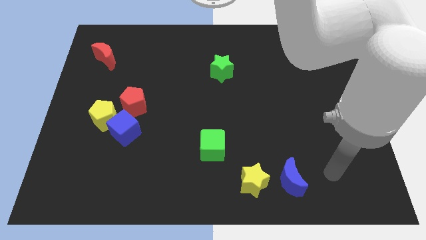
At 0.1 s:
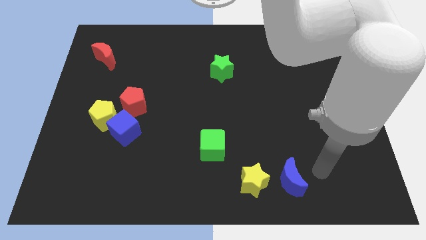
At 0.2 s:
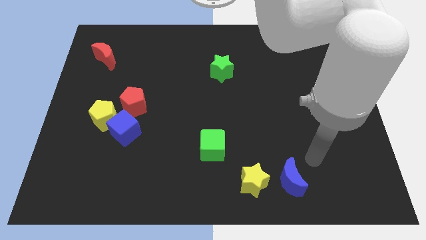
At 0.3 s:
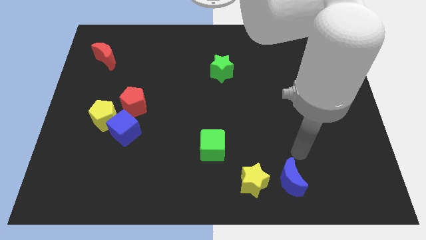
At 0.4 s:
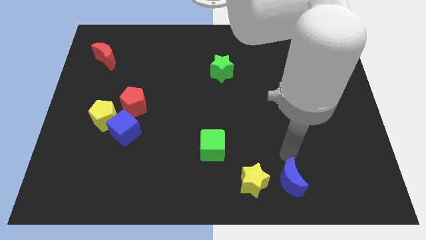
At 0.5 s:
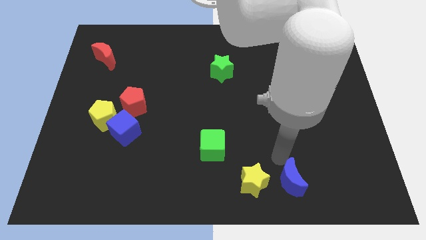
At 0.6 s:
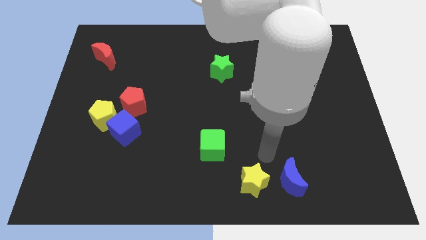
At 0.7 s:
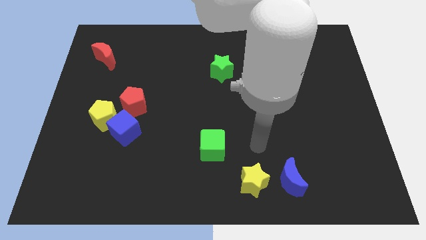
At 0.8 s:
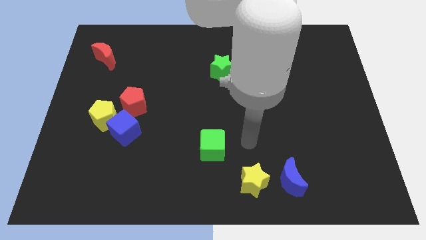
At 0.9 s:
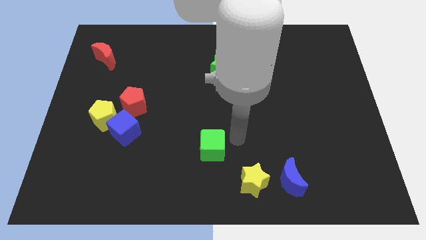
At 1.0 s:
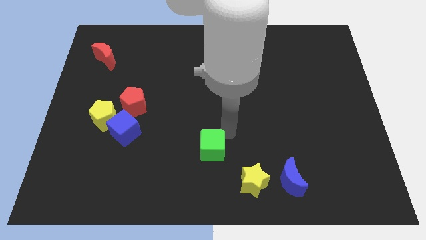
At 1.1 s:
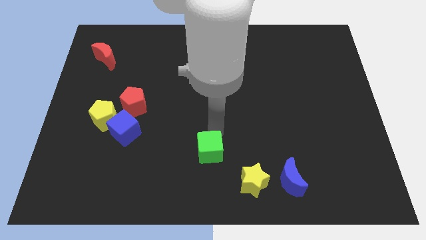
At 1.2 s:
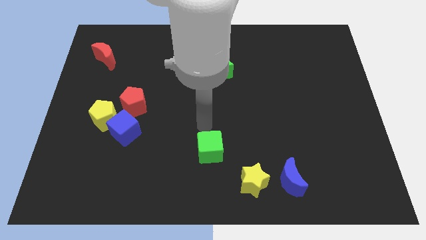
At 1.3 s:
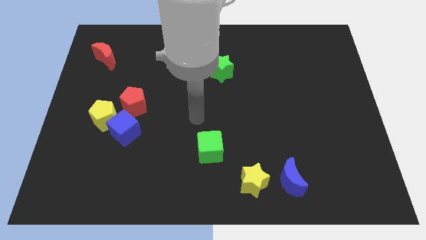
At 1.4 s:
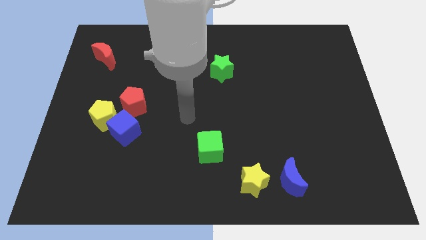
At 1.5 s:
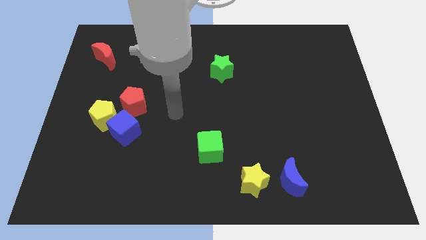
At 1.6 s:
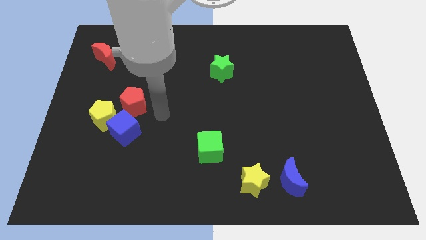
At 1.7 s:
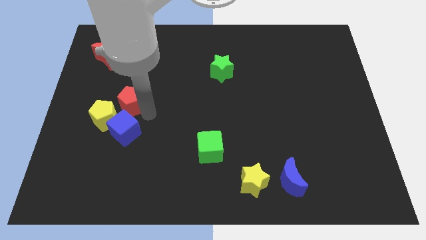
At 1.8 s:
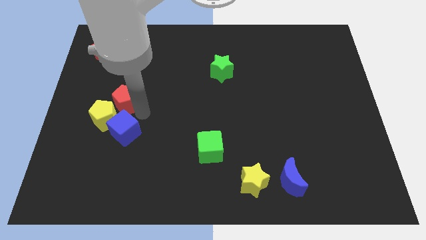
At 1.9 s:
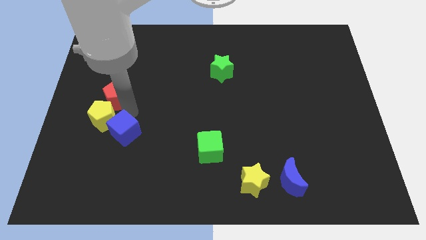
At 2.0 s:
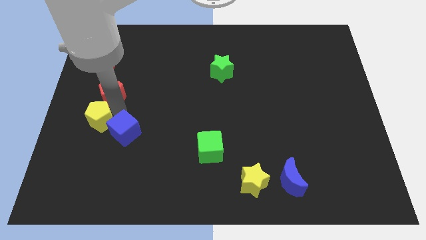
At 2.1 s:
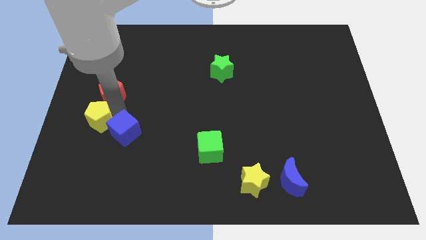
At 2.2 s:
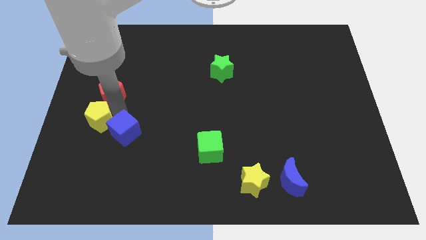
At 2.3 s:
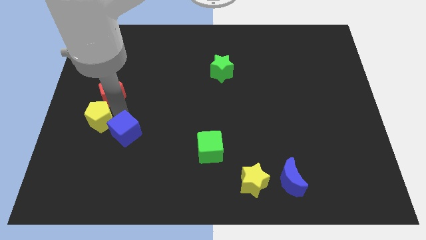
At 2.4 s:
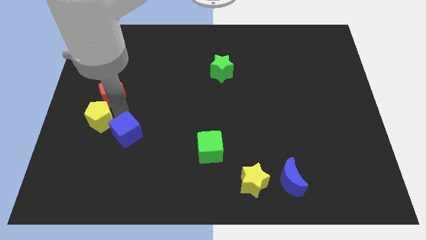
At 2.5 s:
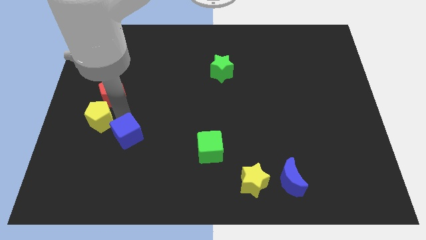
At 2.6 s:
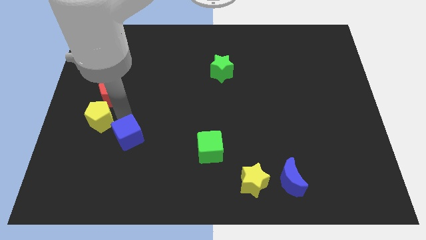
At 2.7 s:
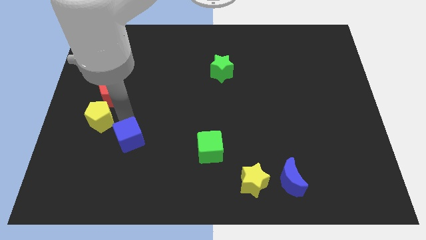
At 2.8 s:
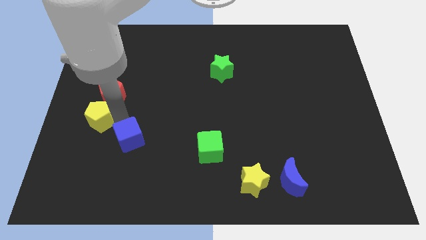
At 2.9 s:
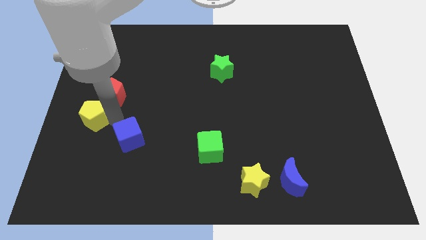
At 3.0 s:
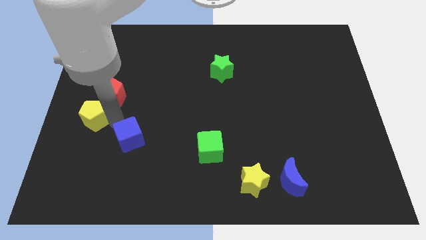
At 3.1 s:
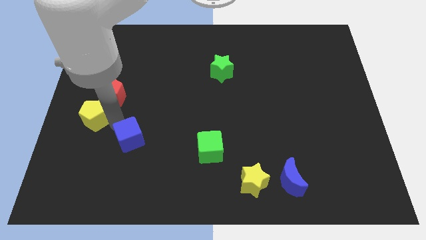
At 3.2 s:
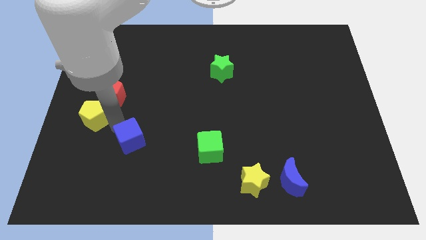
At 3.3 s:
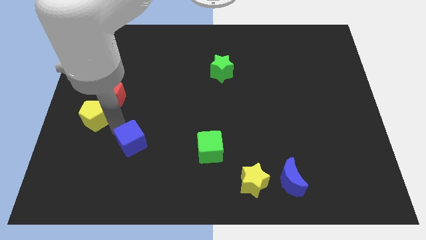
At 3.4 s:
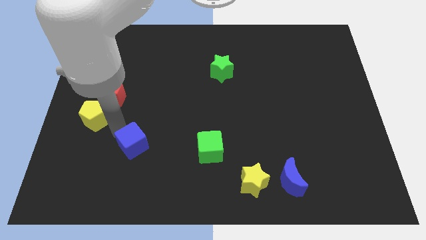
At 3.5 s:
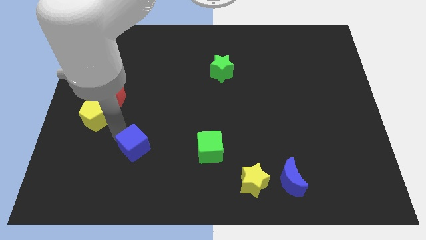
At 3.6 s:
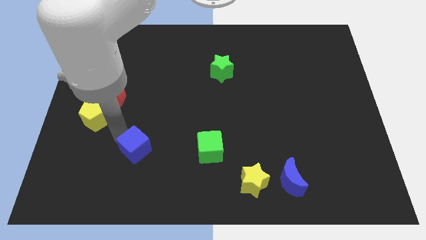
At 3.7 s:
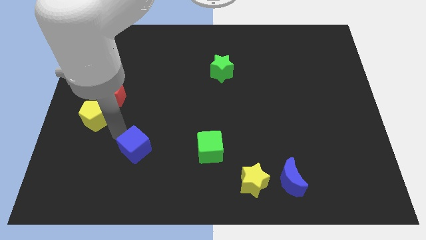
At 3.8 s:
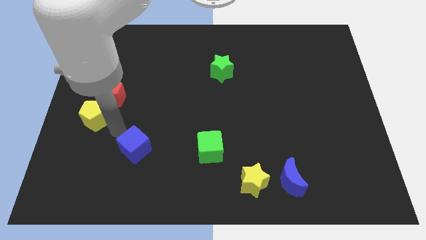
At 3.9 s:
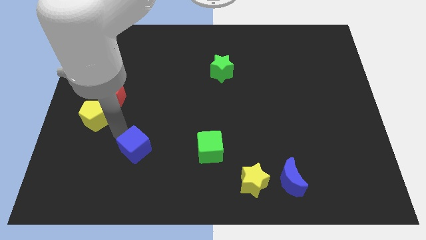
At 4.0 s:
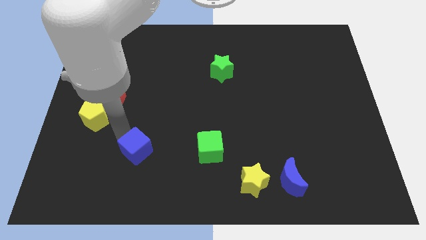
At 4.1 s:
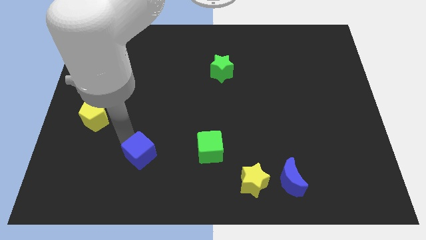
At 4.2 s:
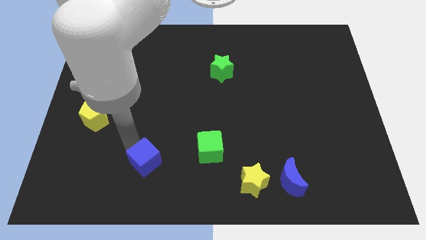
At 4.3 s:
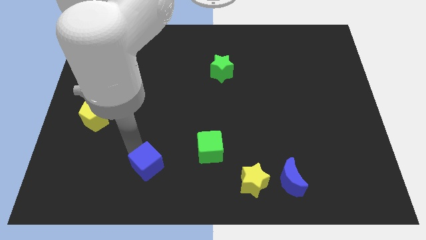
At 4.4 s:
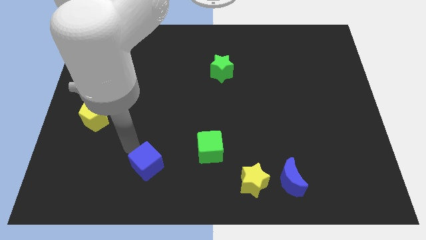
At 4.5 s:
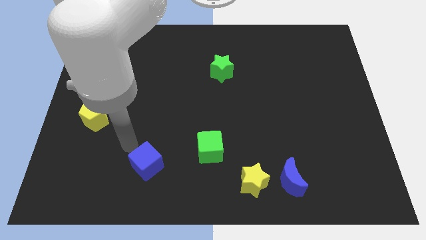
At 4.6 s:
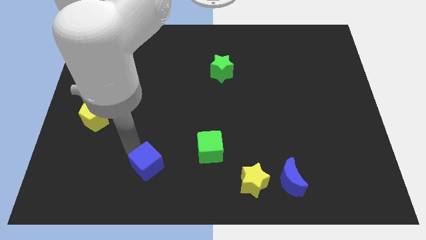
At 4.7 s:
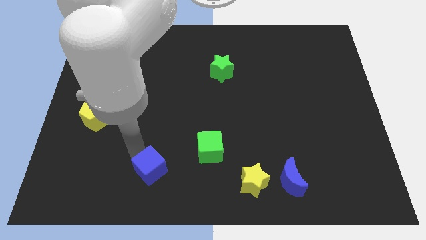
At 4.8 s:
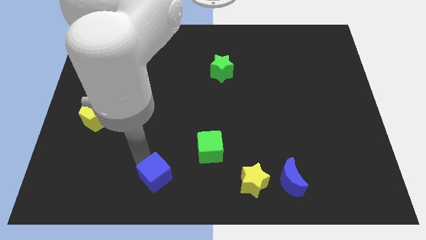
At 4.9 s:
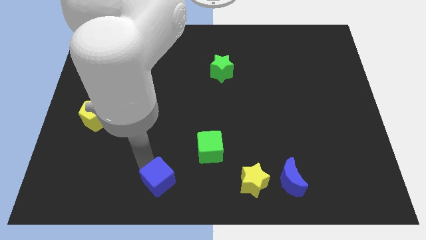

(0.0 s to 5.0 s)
put the blue cube to the bottom side

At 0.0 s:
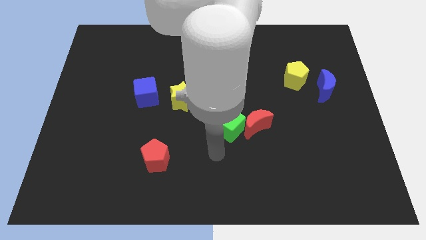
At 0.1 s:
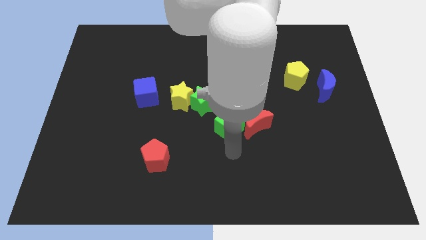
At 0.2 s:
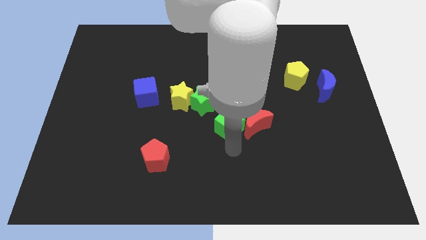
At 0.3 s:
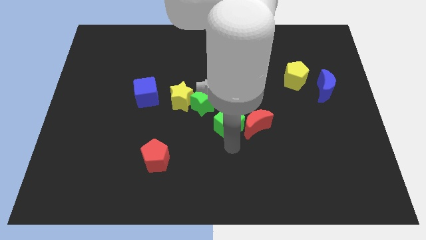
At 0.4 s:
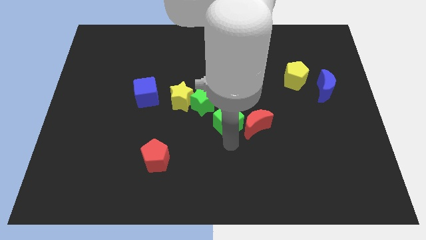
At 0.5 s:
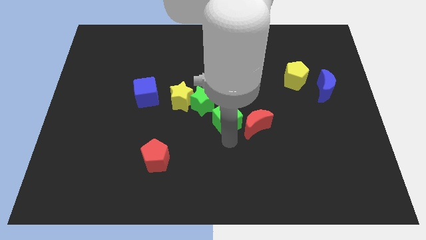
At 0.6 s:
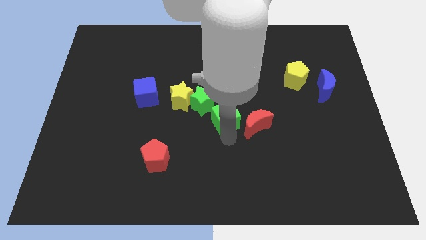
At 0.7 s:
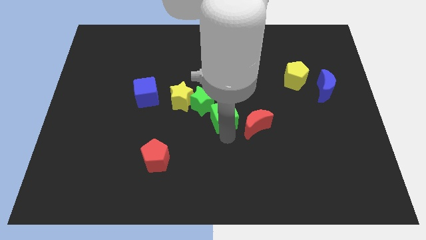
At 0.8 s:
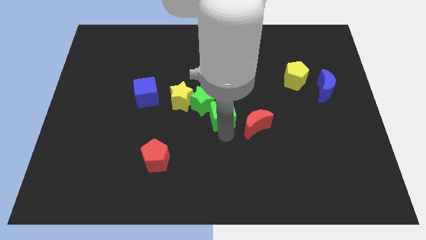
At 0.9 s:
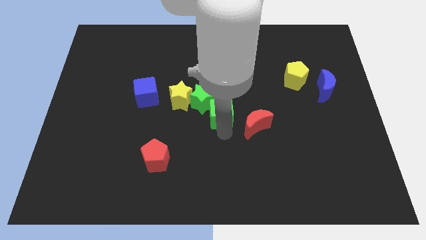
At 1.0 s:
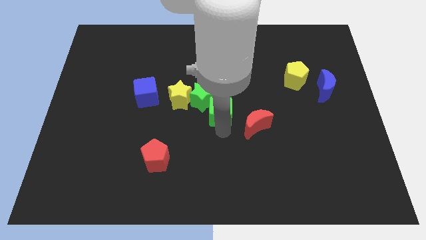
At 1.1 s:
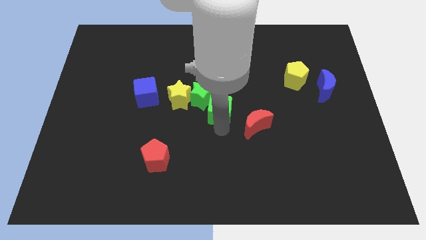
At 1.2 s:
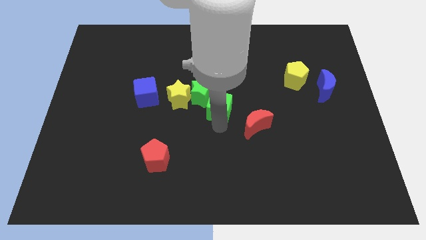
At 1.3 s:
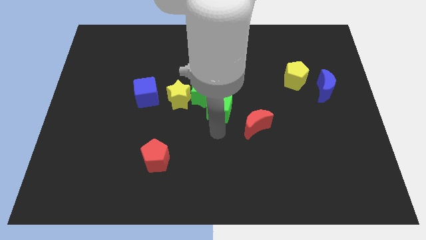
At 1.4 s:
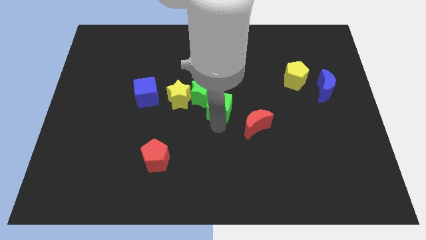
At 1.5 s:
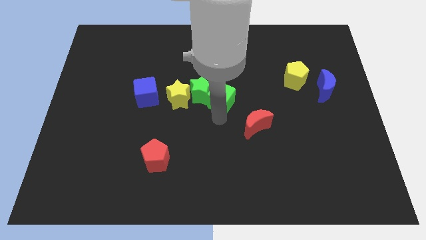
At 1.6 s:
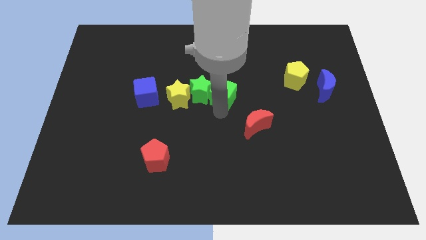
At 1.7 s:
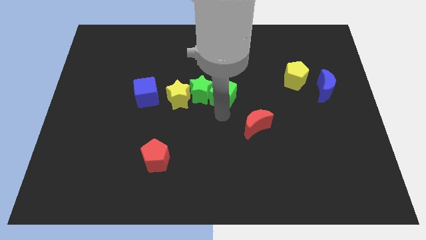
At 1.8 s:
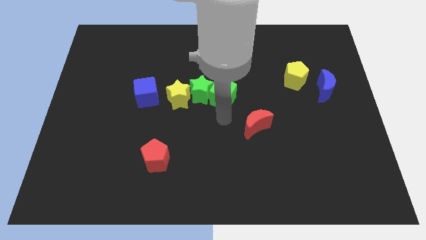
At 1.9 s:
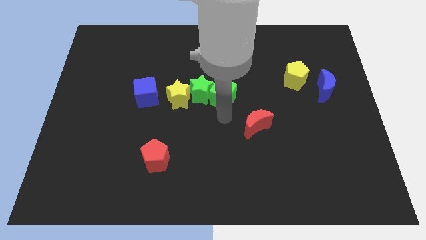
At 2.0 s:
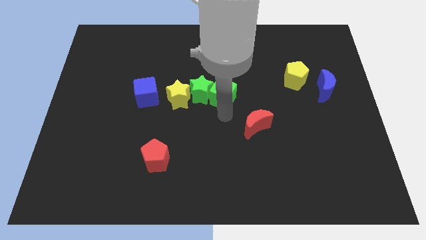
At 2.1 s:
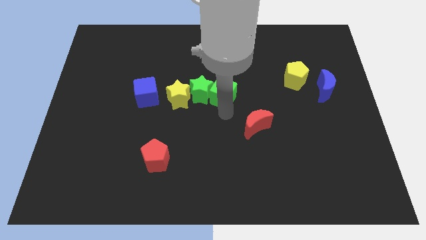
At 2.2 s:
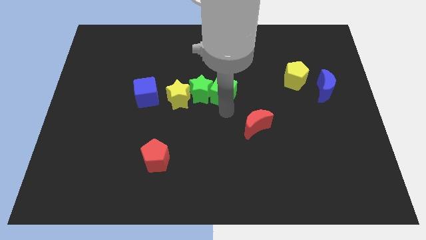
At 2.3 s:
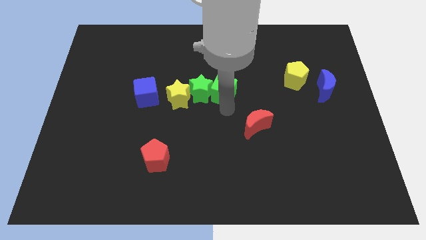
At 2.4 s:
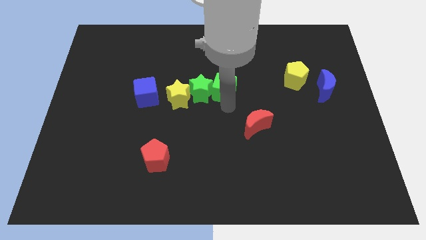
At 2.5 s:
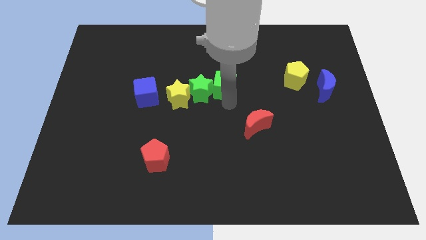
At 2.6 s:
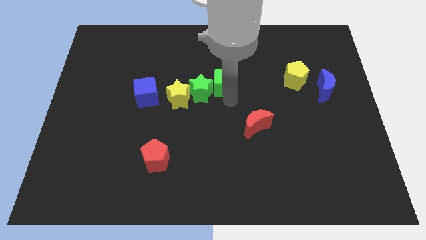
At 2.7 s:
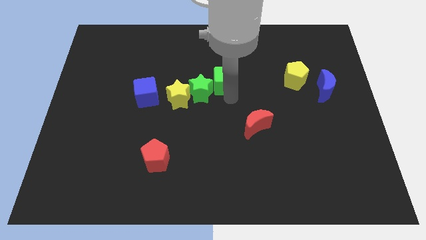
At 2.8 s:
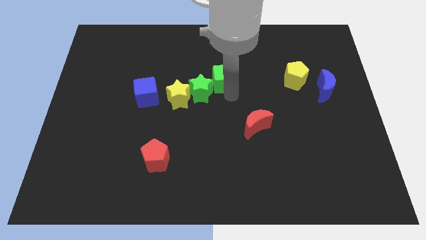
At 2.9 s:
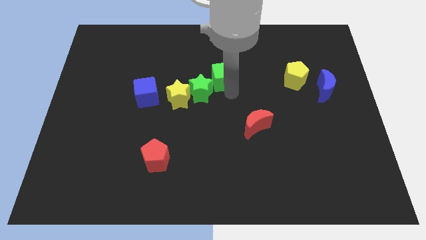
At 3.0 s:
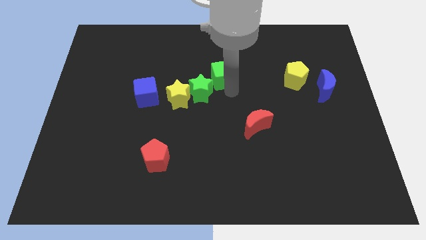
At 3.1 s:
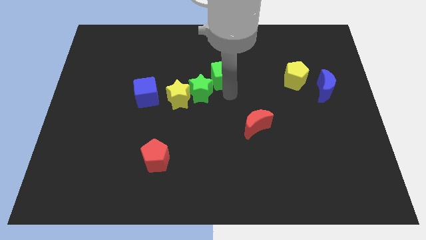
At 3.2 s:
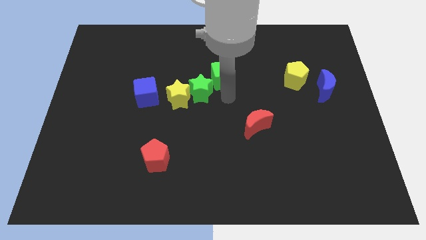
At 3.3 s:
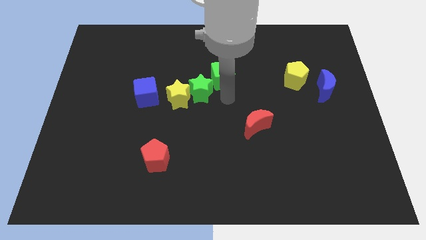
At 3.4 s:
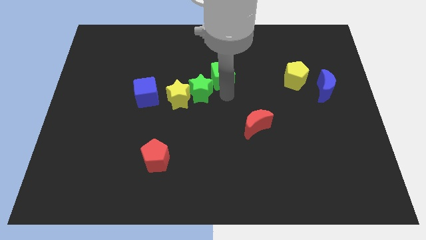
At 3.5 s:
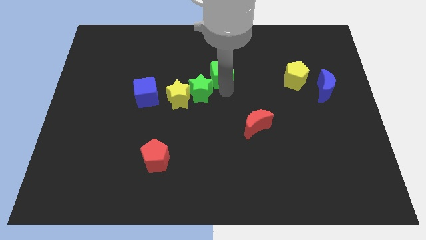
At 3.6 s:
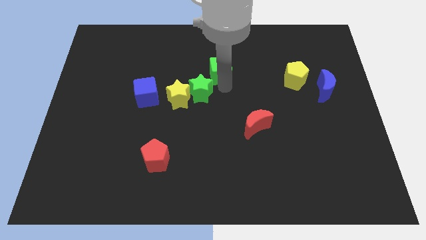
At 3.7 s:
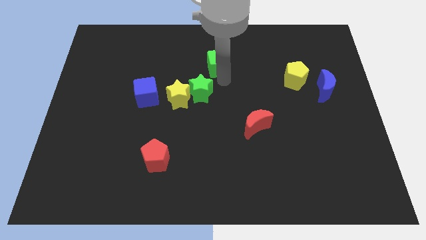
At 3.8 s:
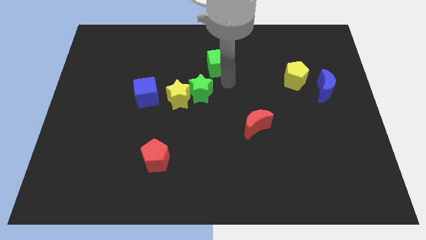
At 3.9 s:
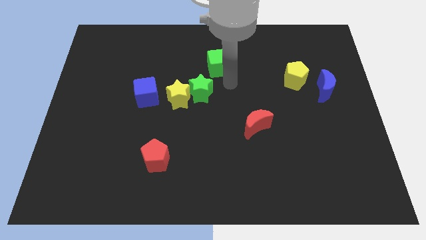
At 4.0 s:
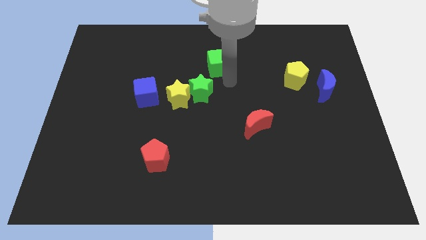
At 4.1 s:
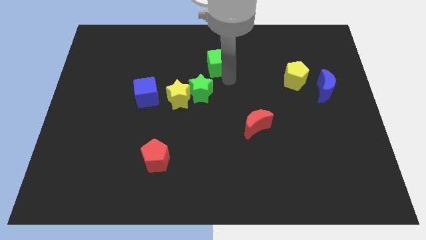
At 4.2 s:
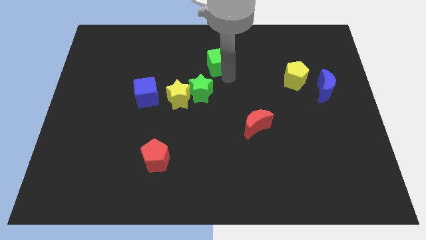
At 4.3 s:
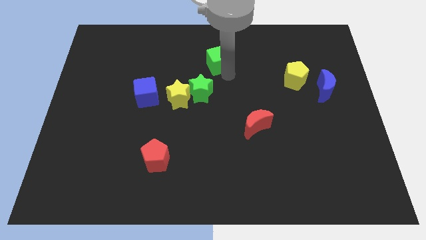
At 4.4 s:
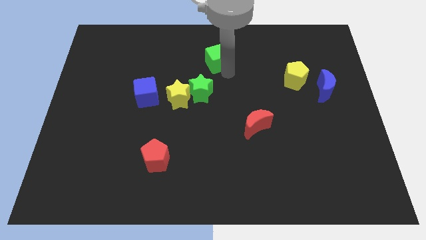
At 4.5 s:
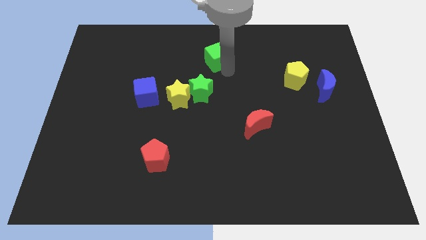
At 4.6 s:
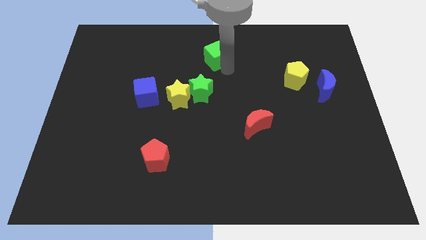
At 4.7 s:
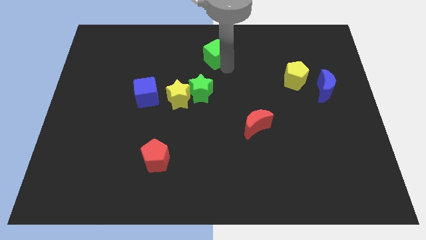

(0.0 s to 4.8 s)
push the green cube to the top
